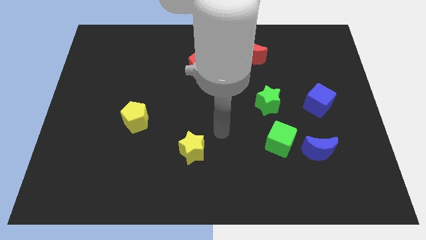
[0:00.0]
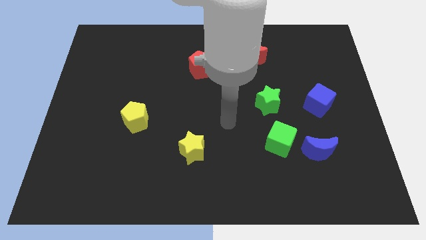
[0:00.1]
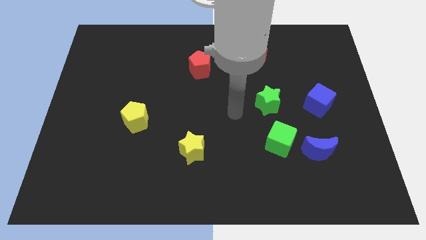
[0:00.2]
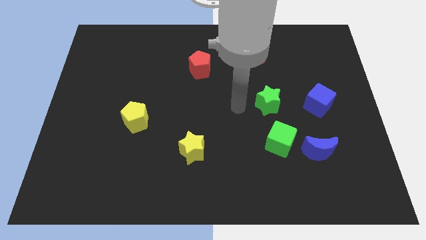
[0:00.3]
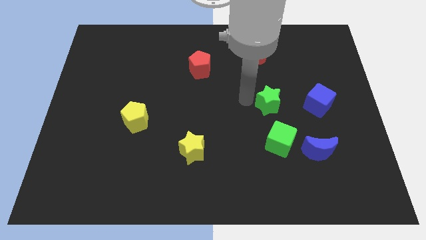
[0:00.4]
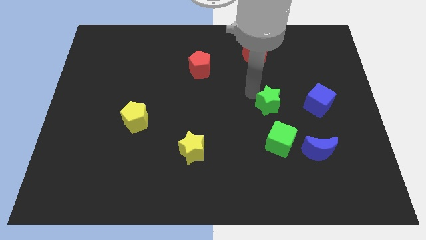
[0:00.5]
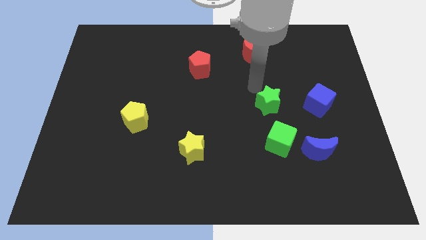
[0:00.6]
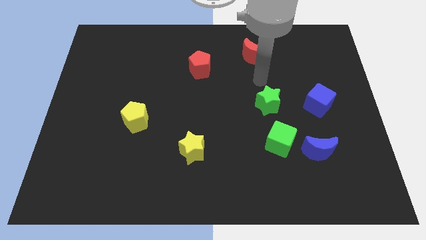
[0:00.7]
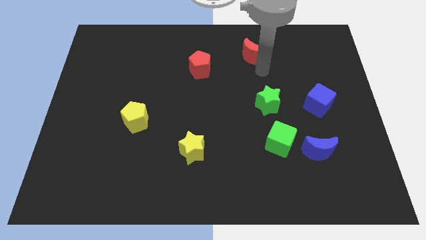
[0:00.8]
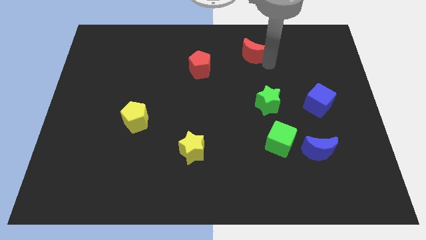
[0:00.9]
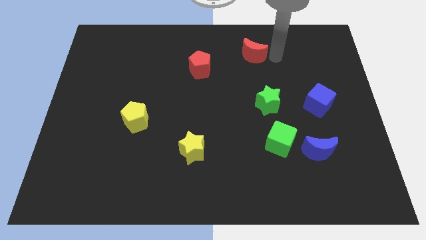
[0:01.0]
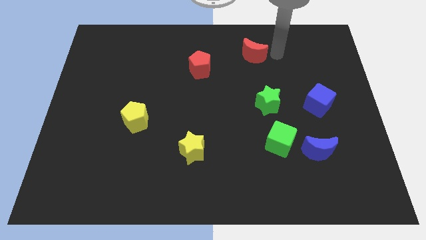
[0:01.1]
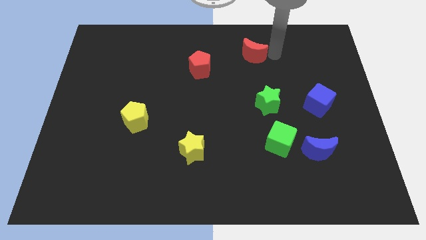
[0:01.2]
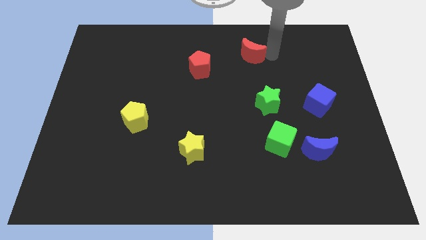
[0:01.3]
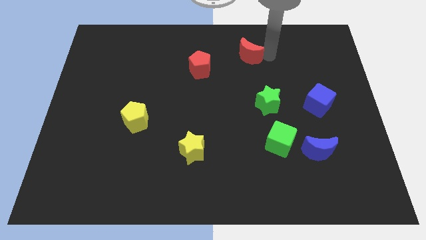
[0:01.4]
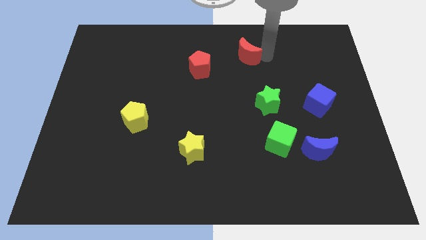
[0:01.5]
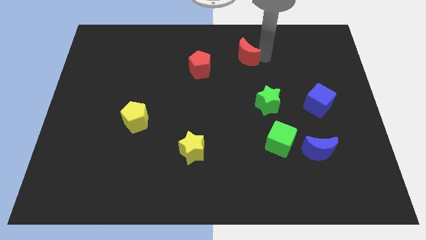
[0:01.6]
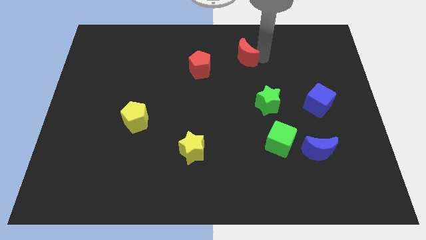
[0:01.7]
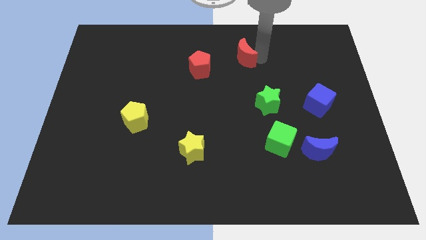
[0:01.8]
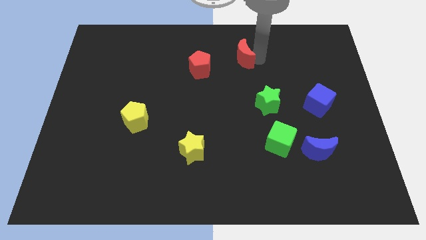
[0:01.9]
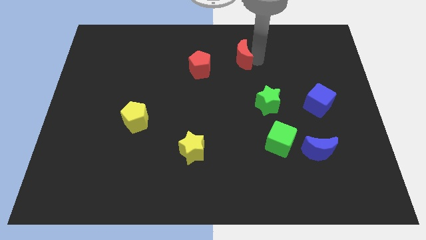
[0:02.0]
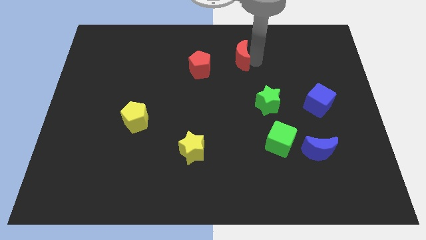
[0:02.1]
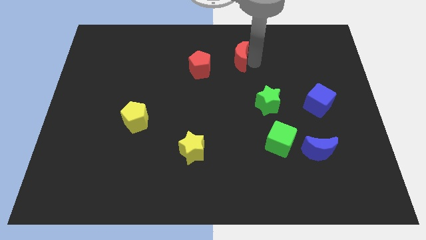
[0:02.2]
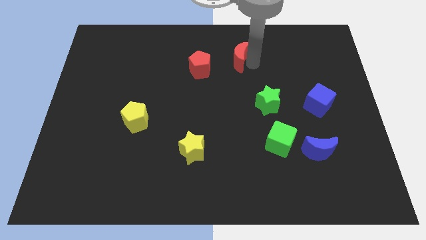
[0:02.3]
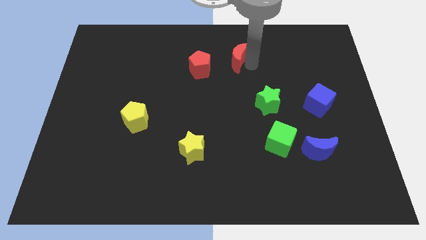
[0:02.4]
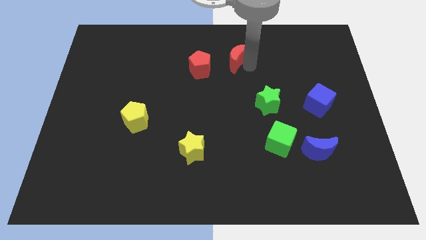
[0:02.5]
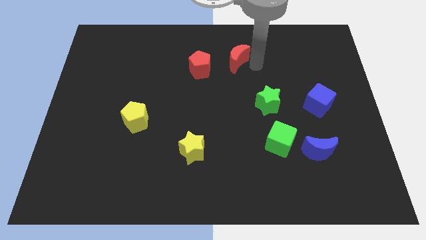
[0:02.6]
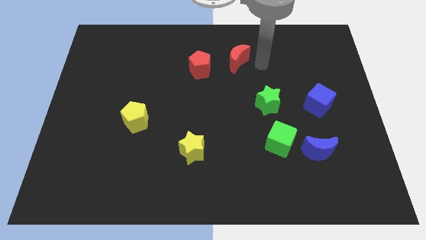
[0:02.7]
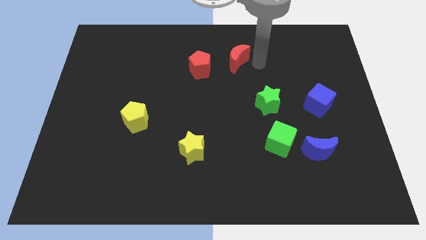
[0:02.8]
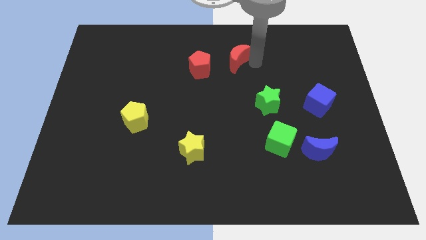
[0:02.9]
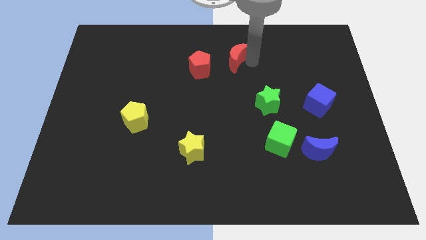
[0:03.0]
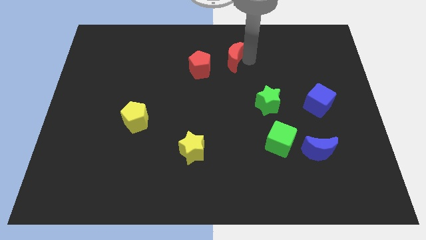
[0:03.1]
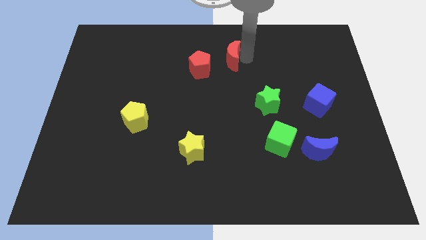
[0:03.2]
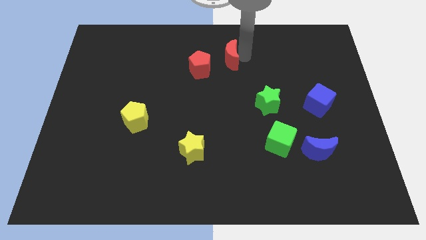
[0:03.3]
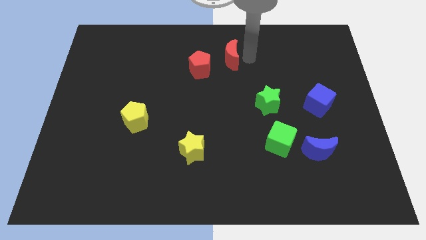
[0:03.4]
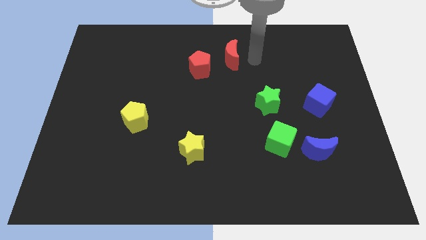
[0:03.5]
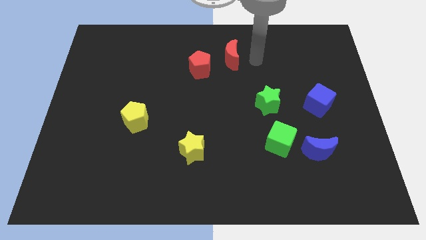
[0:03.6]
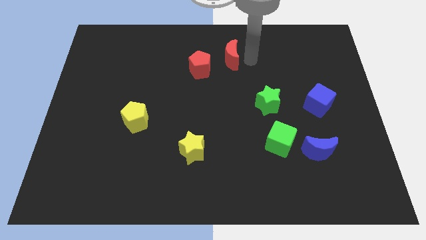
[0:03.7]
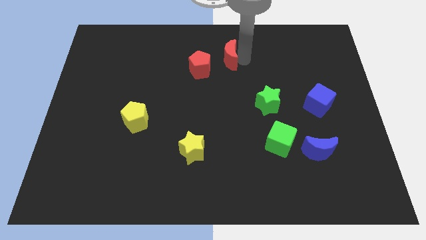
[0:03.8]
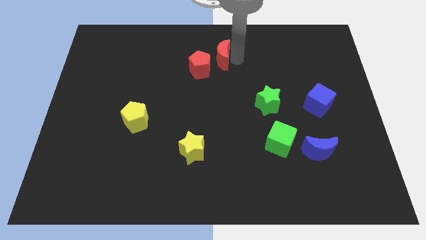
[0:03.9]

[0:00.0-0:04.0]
slide the red moon left a little bit

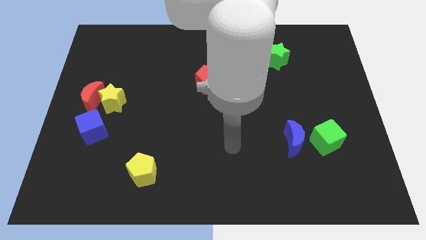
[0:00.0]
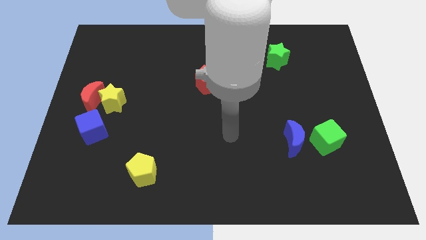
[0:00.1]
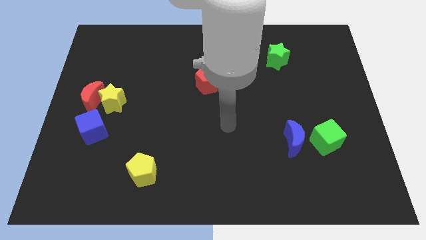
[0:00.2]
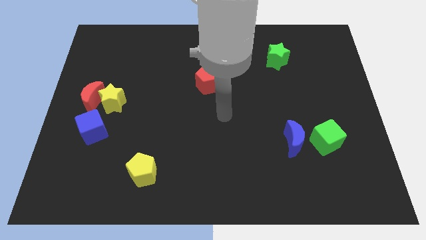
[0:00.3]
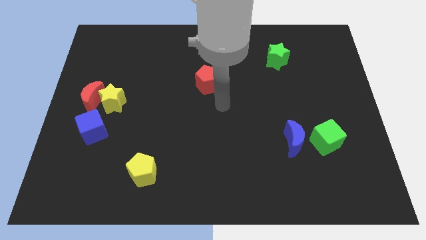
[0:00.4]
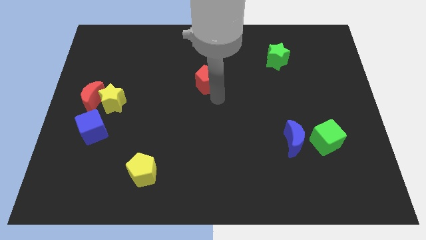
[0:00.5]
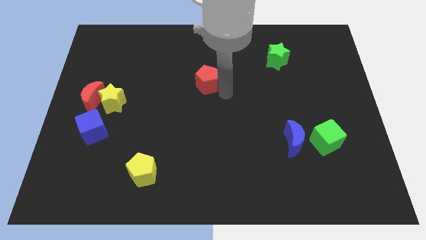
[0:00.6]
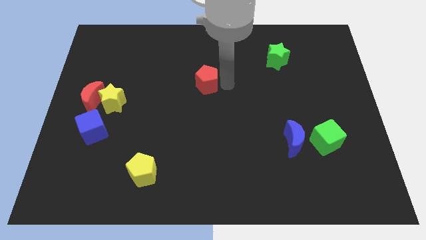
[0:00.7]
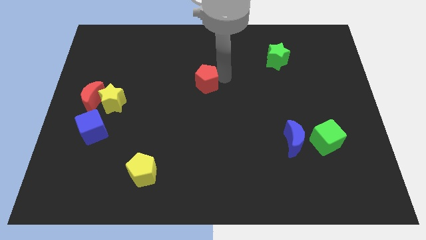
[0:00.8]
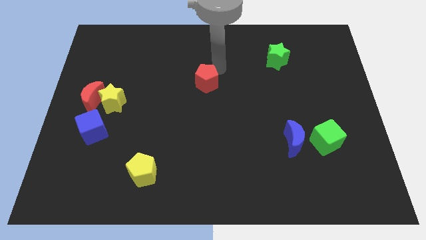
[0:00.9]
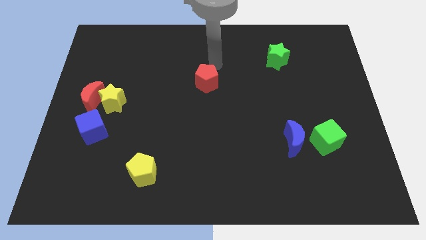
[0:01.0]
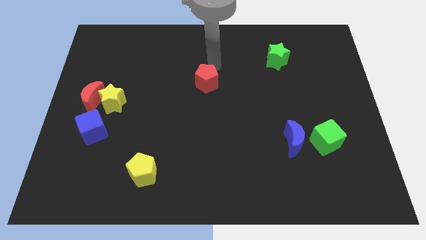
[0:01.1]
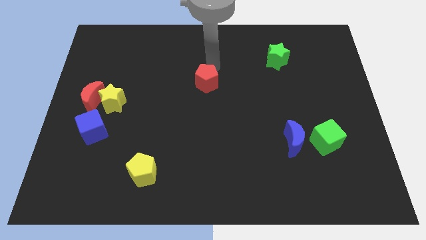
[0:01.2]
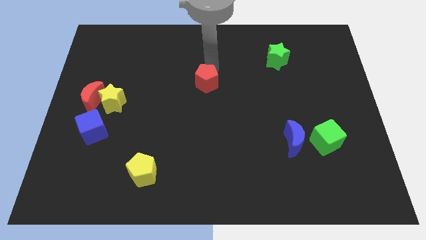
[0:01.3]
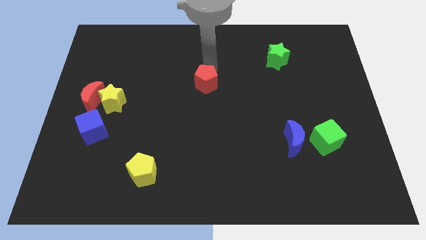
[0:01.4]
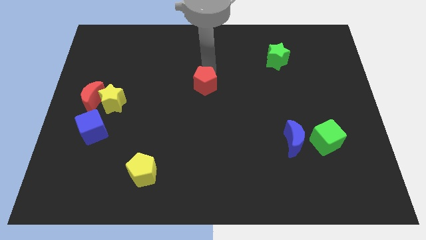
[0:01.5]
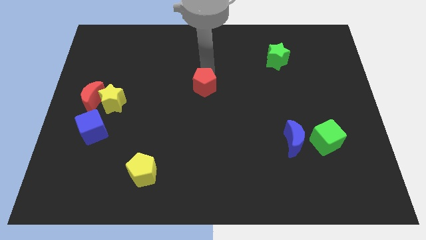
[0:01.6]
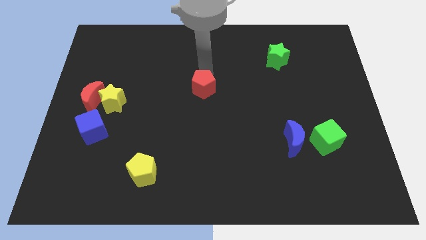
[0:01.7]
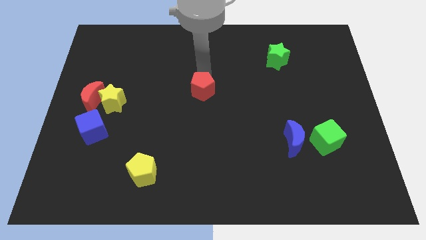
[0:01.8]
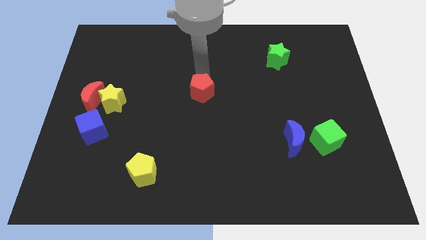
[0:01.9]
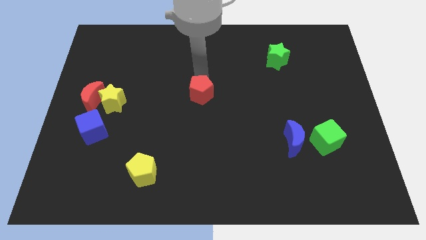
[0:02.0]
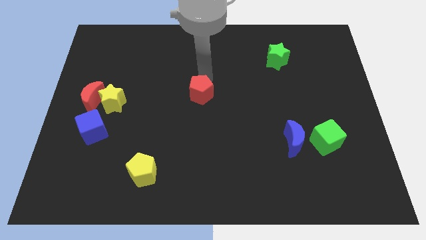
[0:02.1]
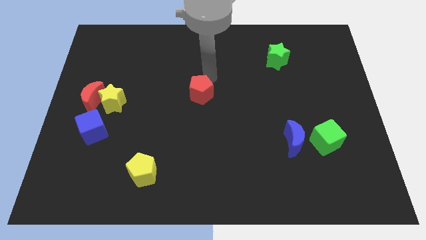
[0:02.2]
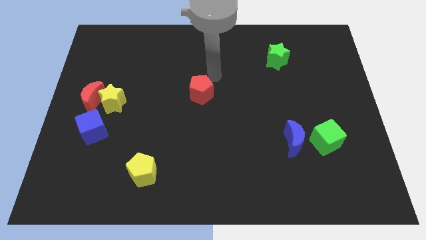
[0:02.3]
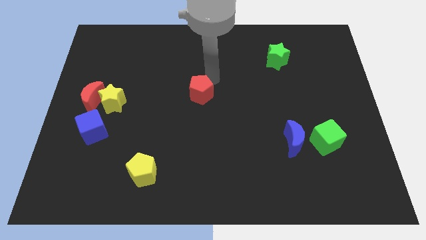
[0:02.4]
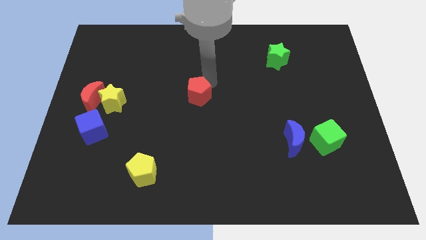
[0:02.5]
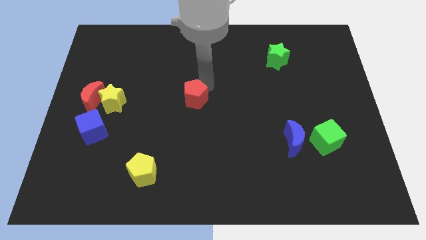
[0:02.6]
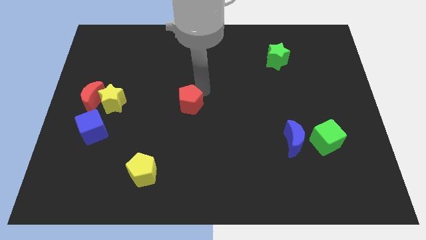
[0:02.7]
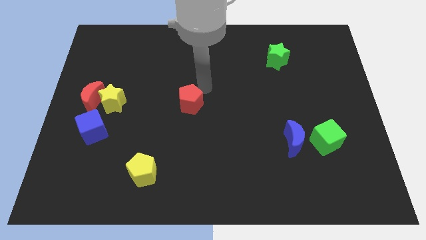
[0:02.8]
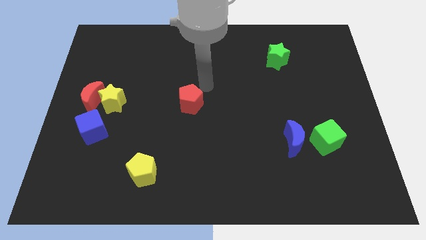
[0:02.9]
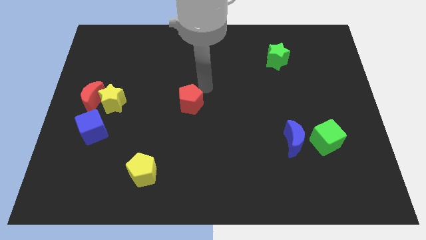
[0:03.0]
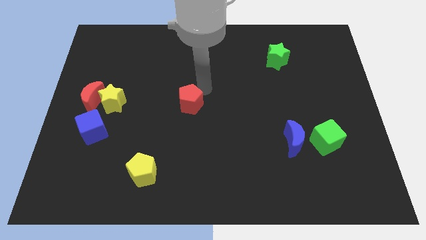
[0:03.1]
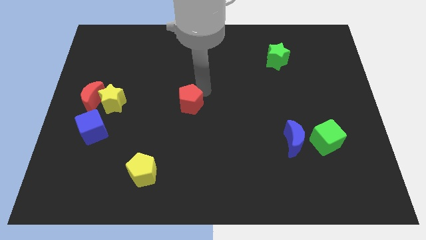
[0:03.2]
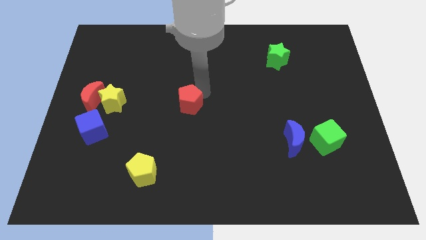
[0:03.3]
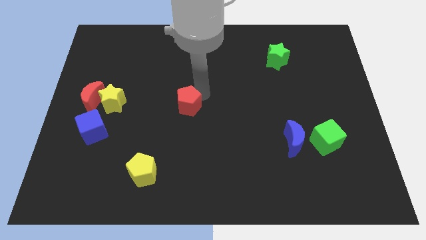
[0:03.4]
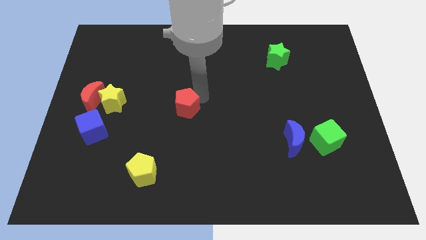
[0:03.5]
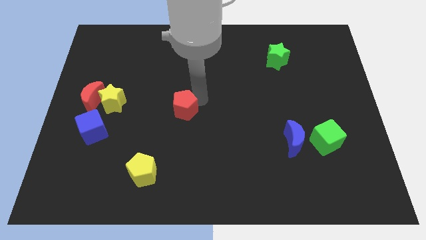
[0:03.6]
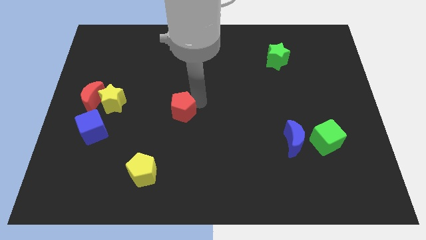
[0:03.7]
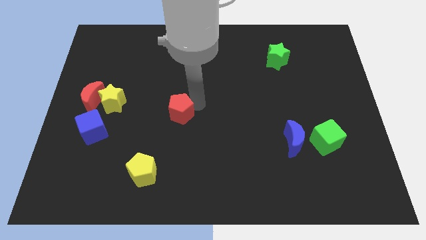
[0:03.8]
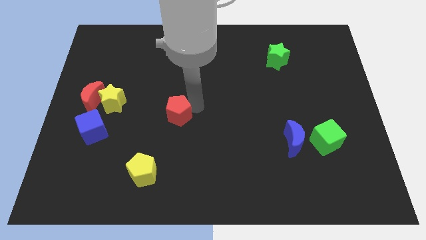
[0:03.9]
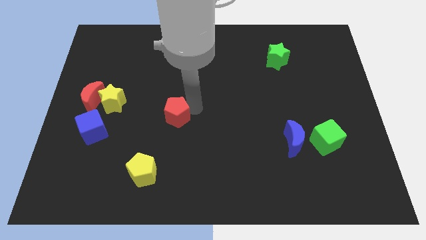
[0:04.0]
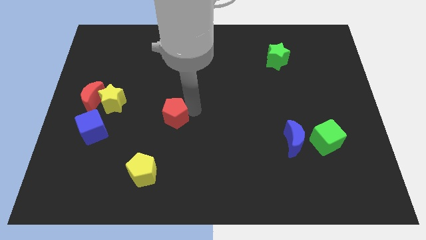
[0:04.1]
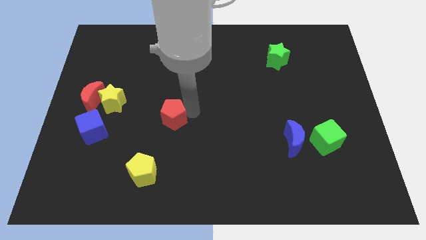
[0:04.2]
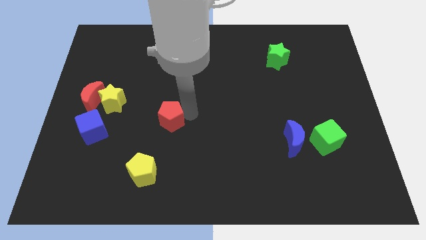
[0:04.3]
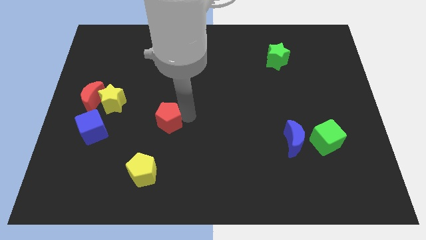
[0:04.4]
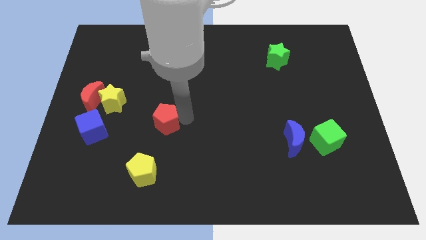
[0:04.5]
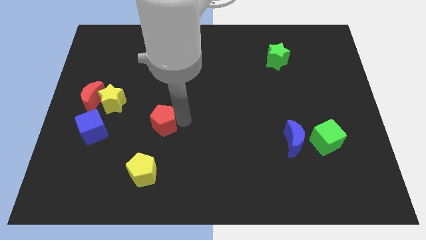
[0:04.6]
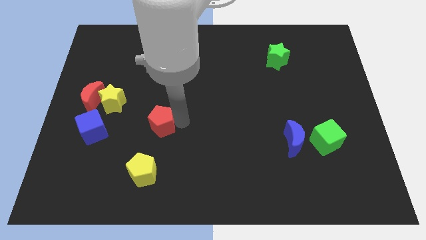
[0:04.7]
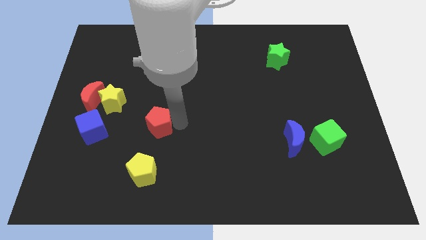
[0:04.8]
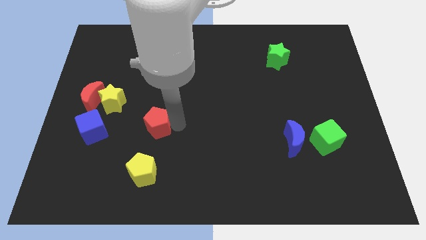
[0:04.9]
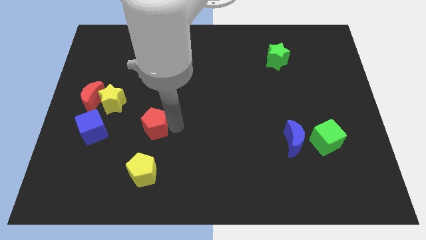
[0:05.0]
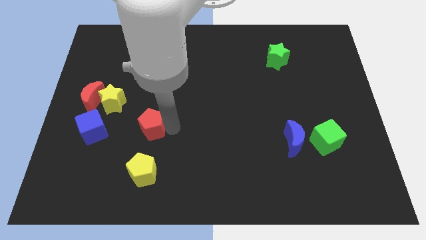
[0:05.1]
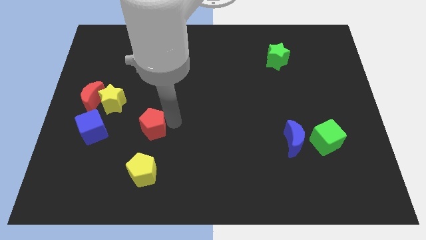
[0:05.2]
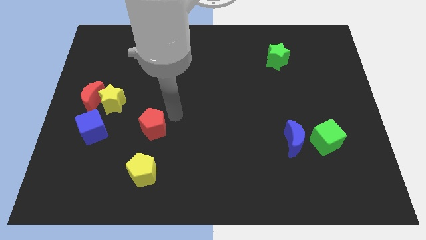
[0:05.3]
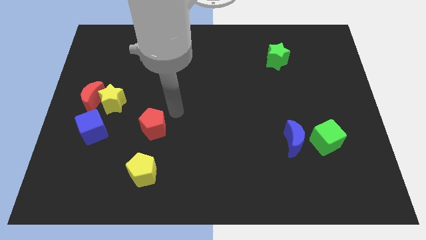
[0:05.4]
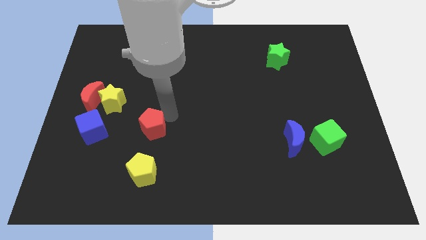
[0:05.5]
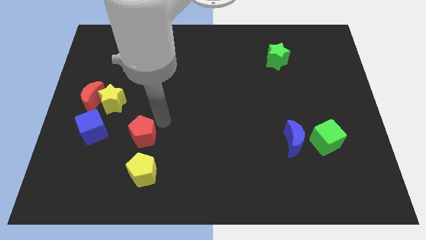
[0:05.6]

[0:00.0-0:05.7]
push the red pentagon down and left
